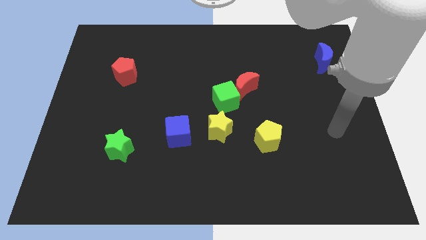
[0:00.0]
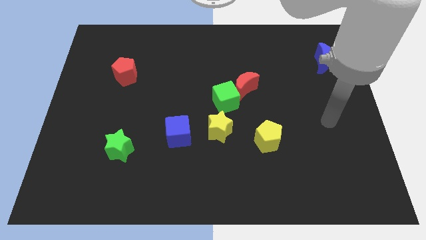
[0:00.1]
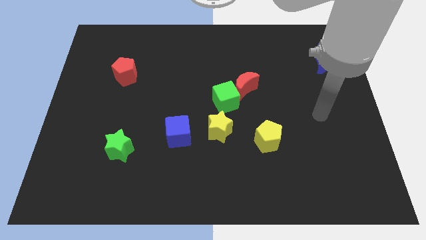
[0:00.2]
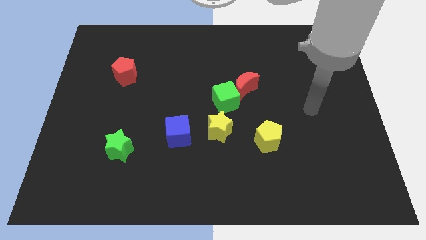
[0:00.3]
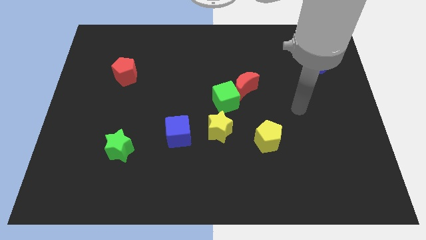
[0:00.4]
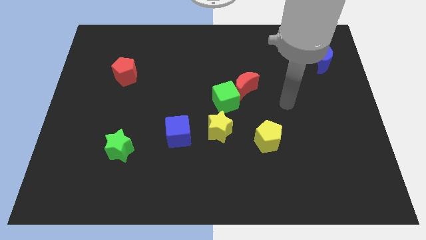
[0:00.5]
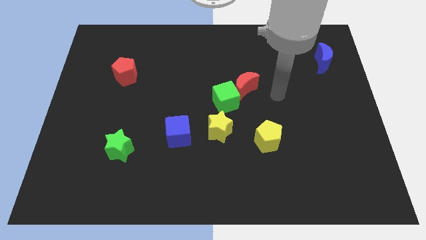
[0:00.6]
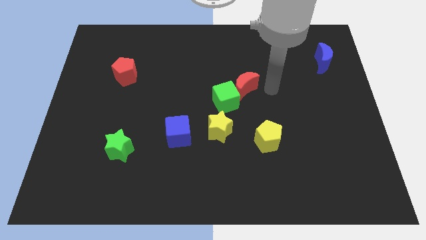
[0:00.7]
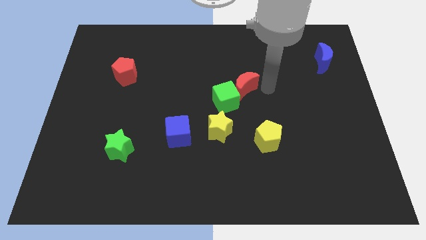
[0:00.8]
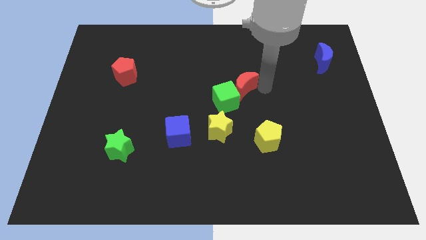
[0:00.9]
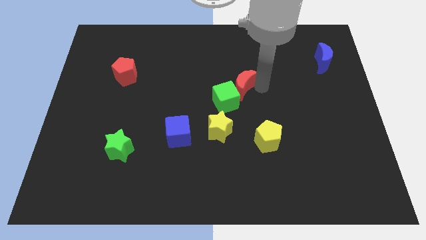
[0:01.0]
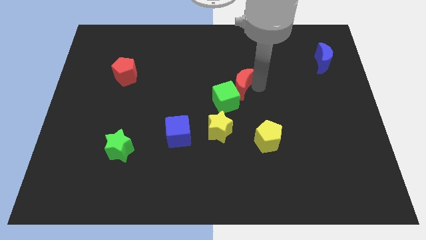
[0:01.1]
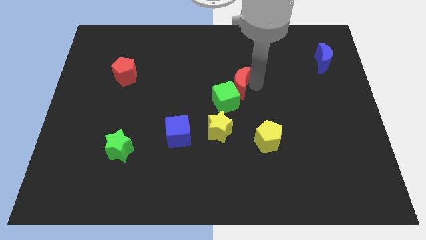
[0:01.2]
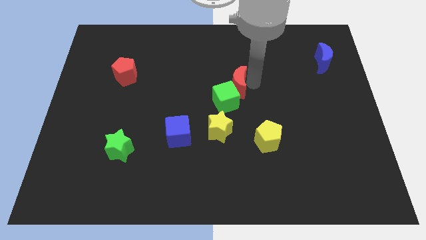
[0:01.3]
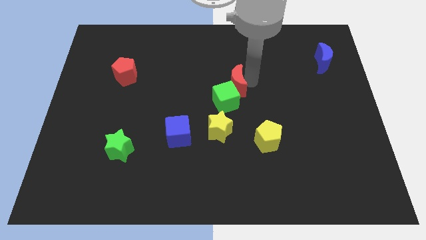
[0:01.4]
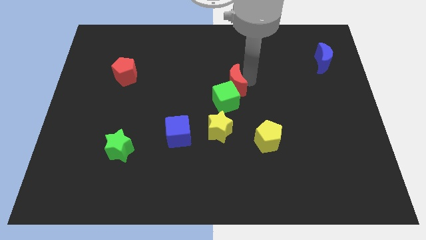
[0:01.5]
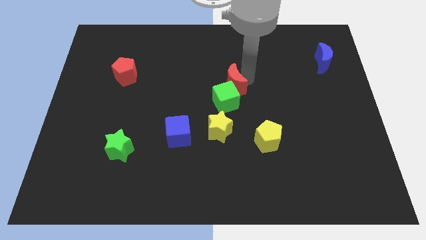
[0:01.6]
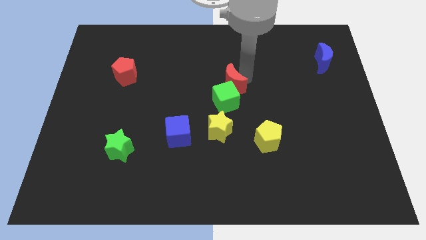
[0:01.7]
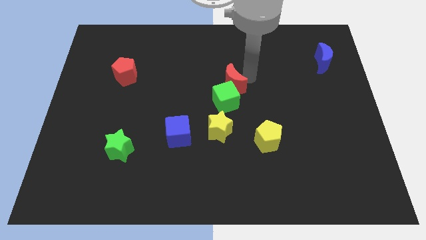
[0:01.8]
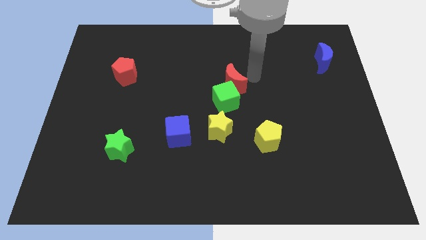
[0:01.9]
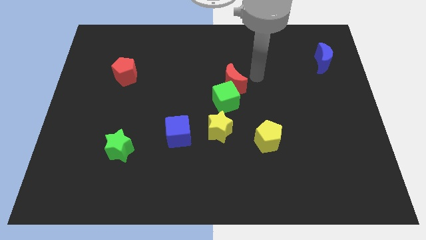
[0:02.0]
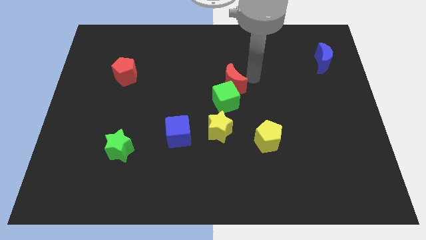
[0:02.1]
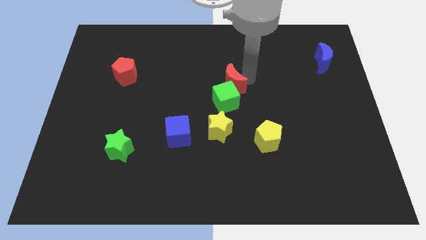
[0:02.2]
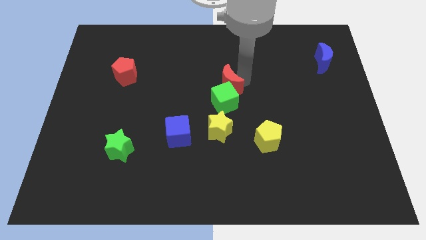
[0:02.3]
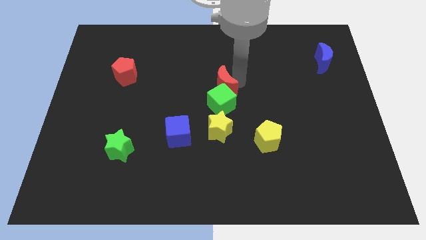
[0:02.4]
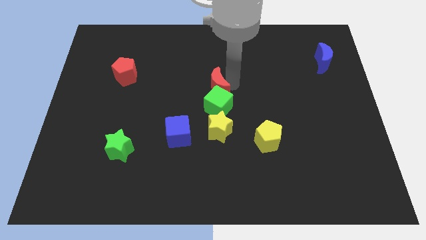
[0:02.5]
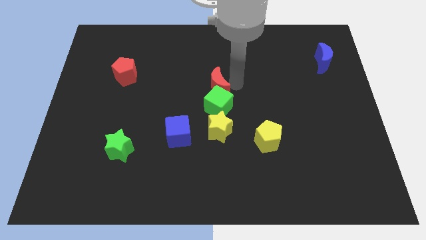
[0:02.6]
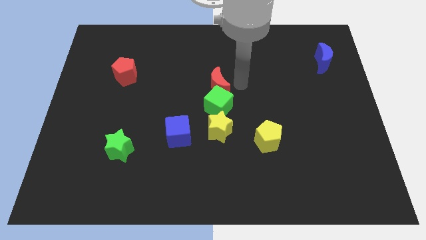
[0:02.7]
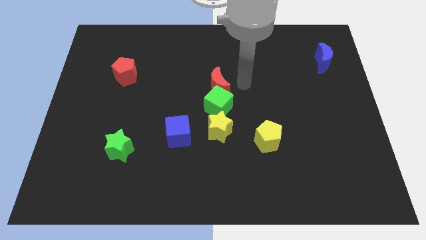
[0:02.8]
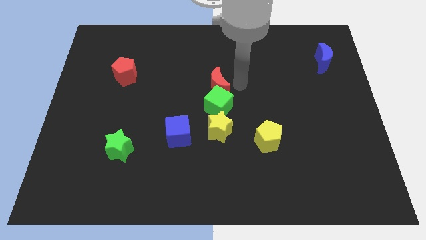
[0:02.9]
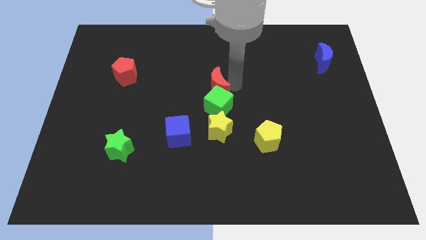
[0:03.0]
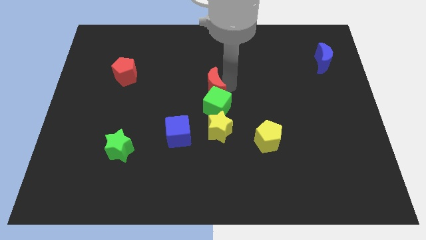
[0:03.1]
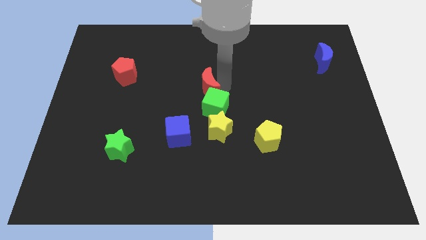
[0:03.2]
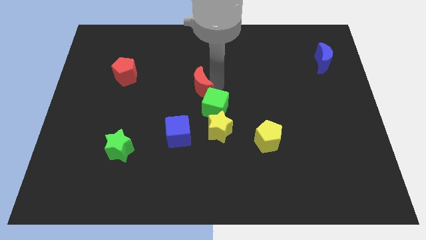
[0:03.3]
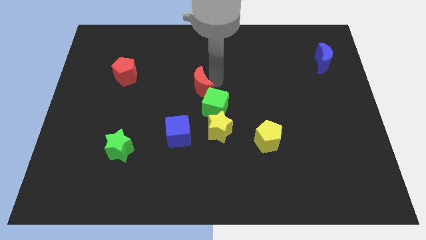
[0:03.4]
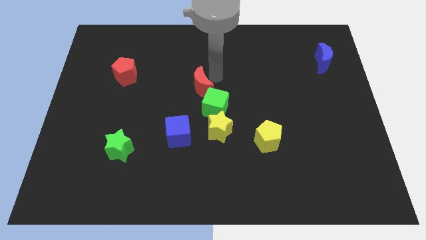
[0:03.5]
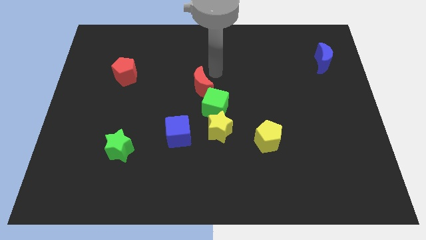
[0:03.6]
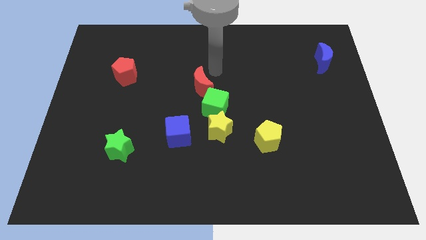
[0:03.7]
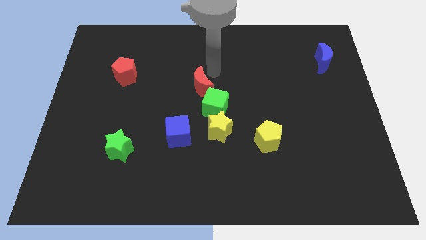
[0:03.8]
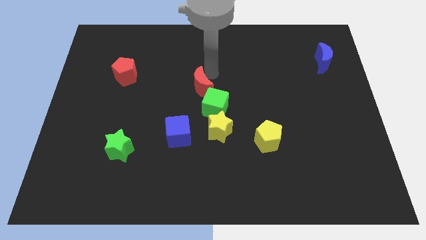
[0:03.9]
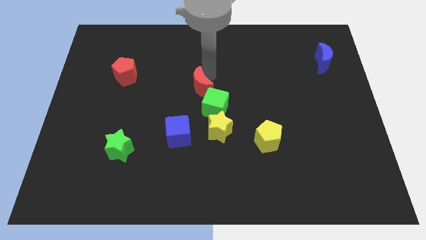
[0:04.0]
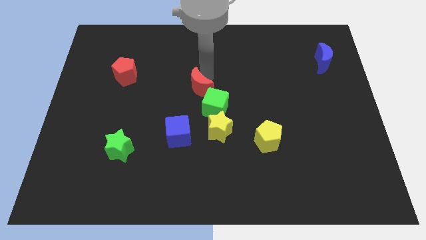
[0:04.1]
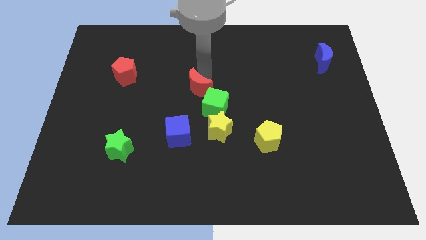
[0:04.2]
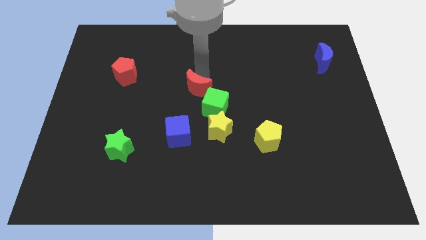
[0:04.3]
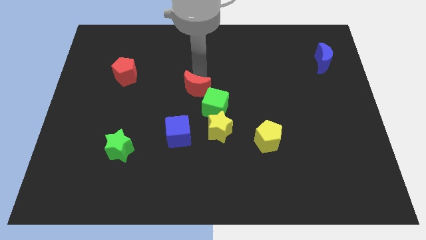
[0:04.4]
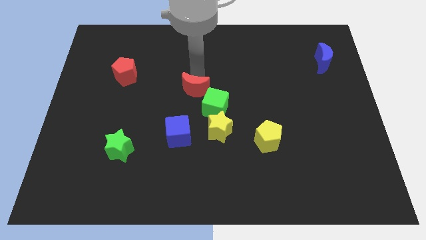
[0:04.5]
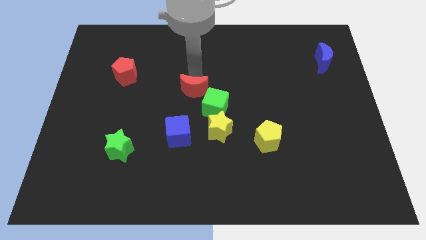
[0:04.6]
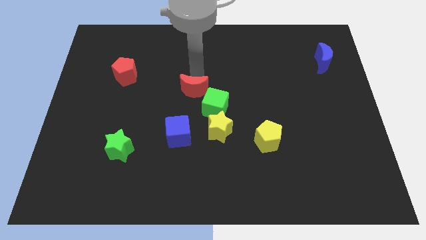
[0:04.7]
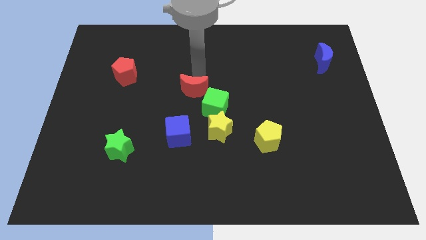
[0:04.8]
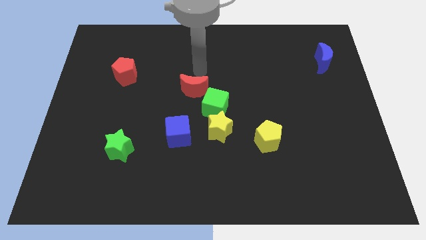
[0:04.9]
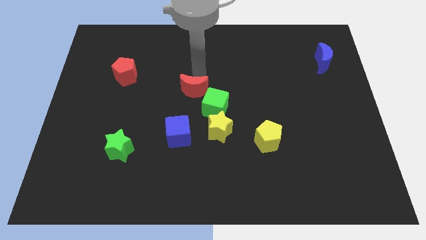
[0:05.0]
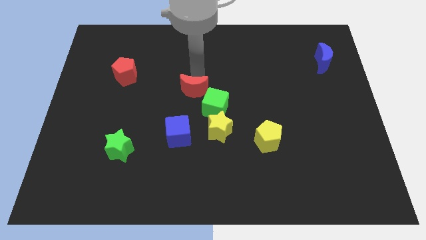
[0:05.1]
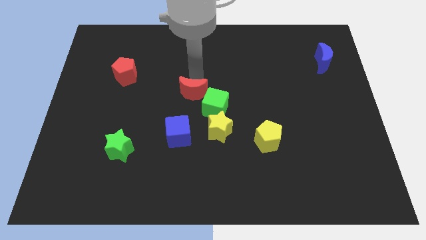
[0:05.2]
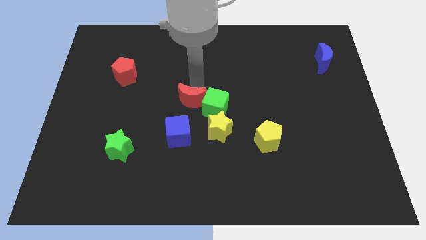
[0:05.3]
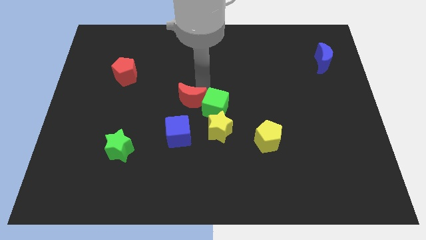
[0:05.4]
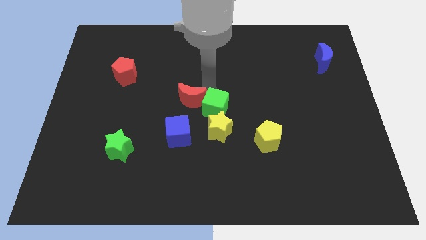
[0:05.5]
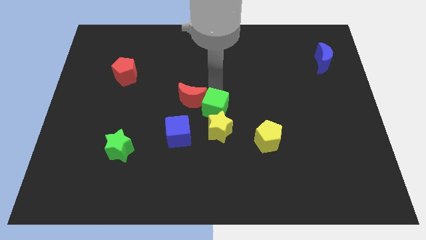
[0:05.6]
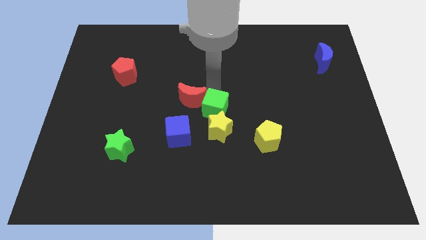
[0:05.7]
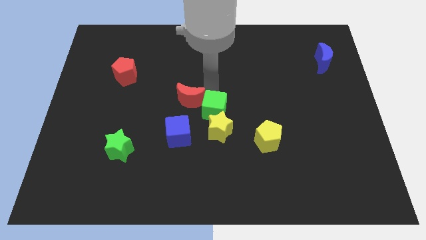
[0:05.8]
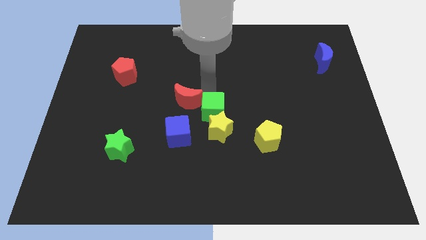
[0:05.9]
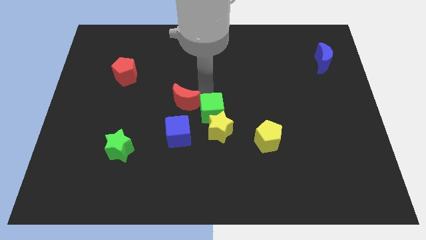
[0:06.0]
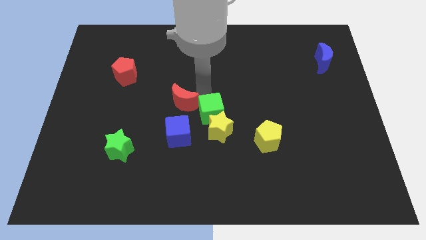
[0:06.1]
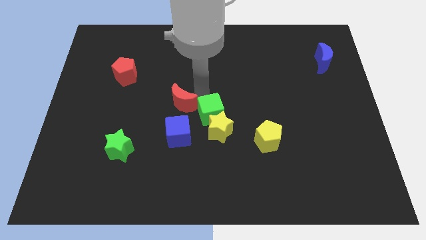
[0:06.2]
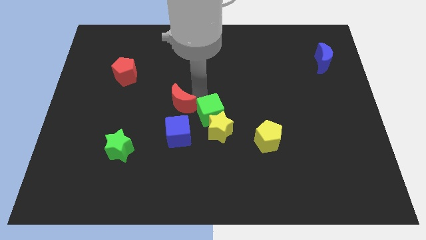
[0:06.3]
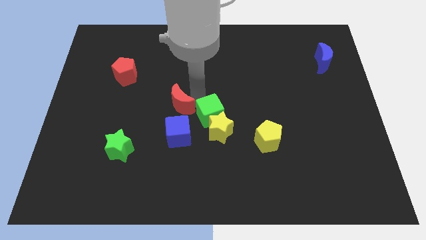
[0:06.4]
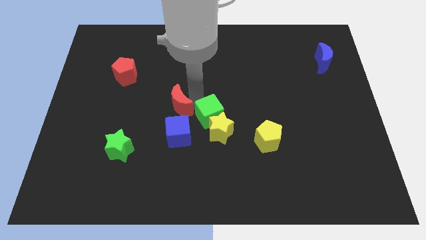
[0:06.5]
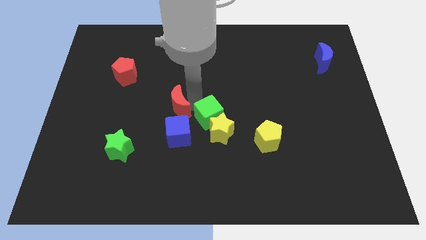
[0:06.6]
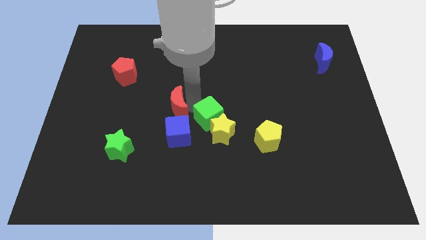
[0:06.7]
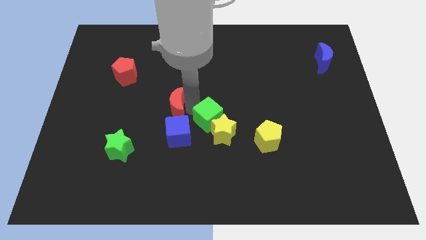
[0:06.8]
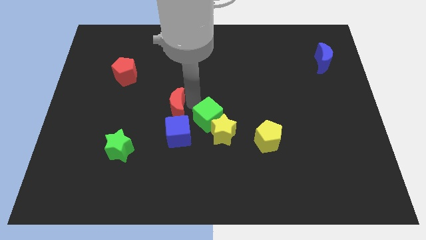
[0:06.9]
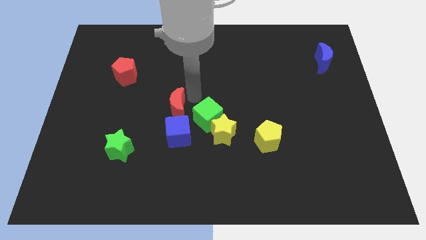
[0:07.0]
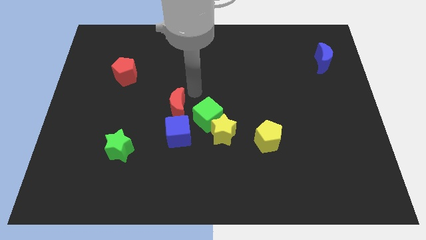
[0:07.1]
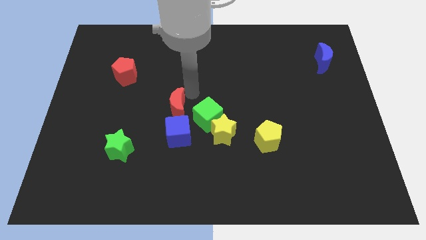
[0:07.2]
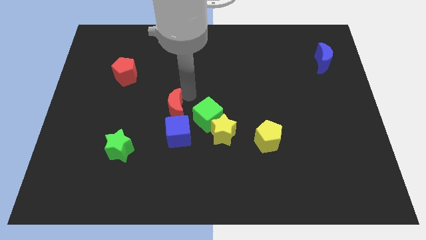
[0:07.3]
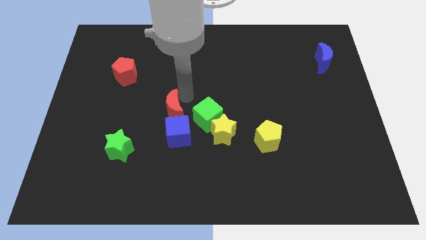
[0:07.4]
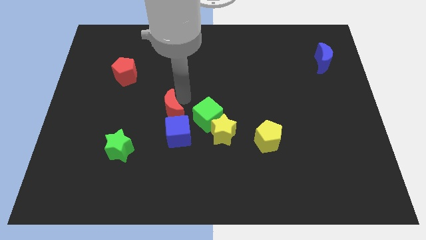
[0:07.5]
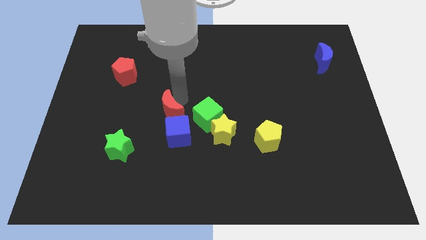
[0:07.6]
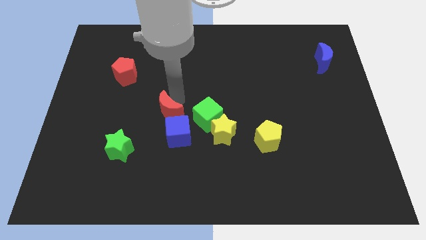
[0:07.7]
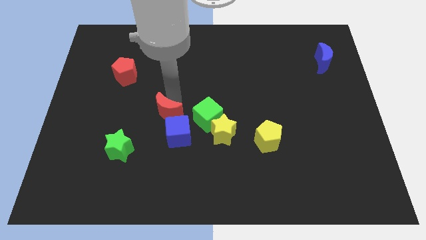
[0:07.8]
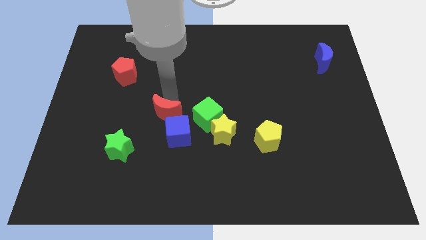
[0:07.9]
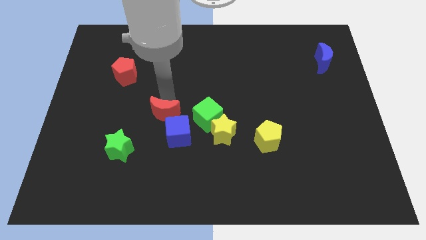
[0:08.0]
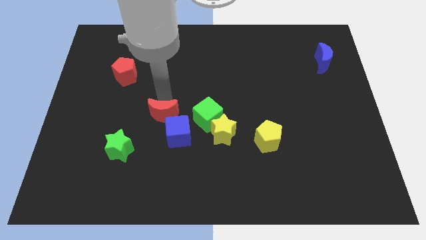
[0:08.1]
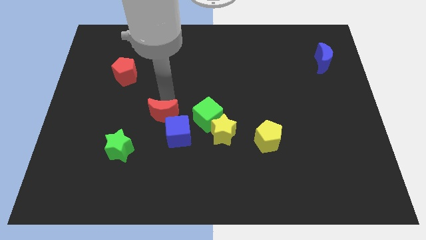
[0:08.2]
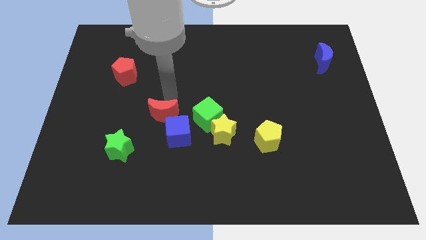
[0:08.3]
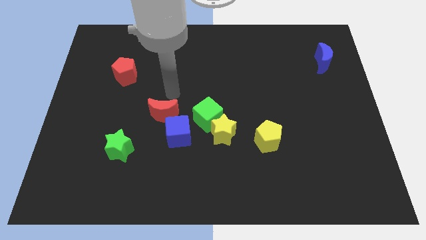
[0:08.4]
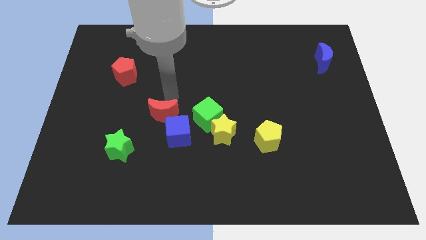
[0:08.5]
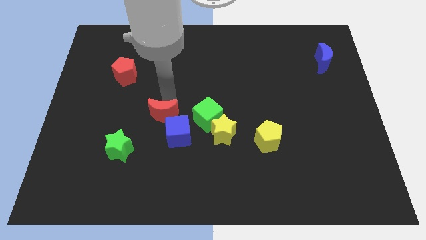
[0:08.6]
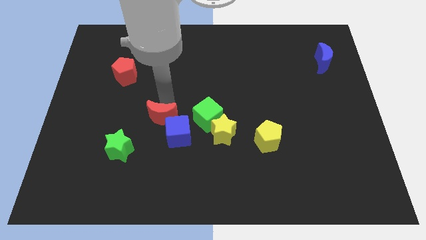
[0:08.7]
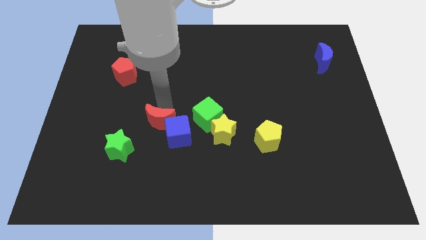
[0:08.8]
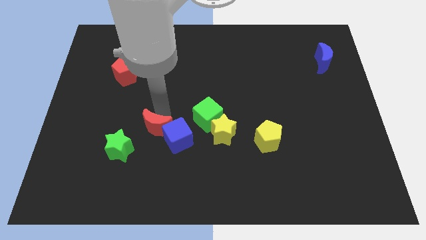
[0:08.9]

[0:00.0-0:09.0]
move the red moon downwards and left diagonally
